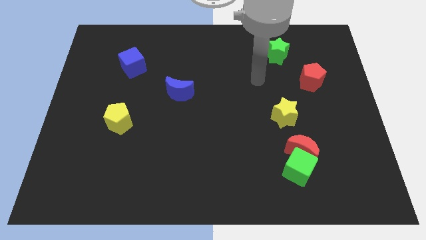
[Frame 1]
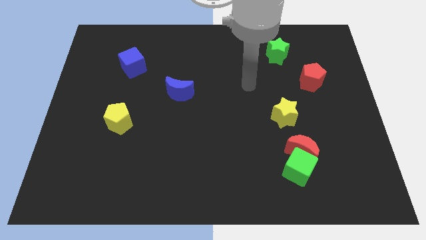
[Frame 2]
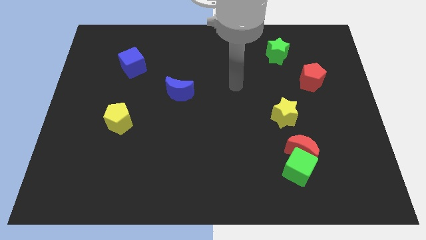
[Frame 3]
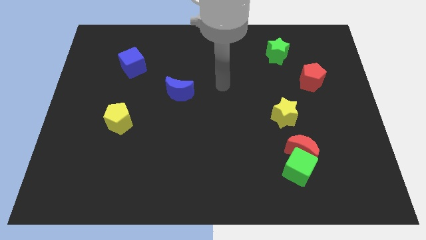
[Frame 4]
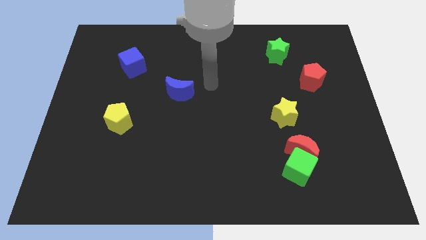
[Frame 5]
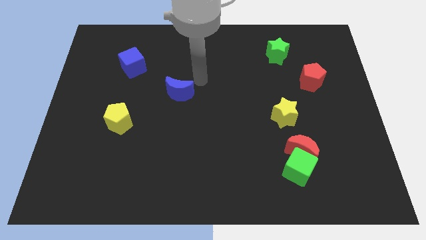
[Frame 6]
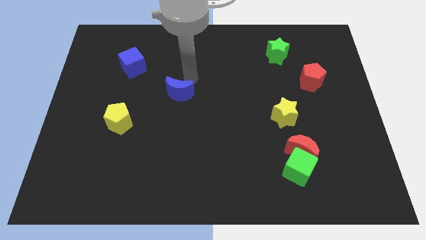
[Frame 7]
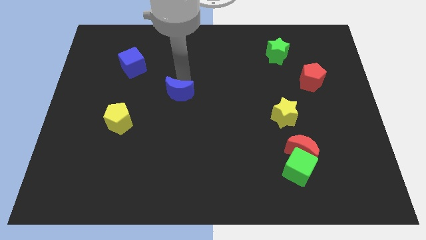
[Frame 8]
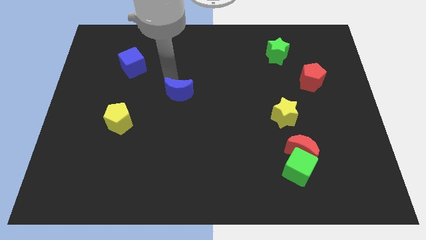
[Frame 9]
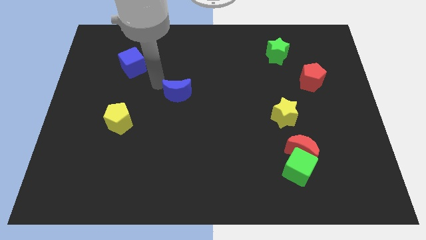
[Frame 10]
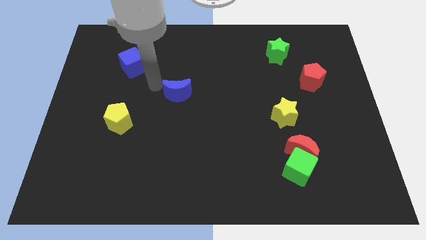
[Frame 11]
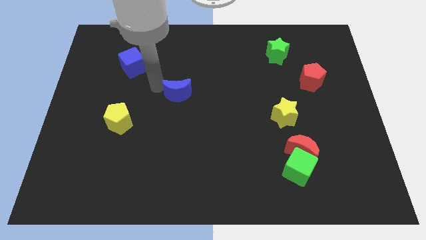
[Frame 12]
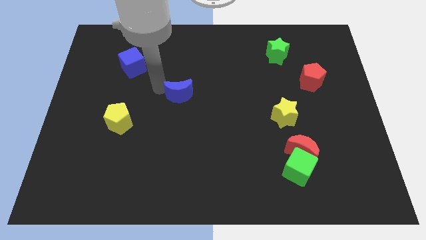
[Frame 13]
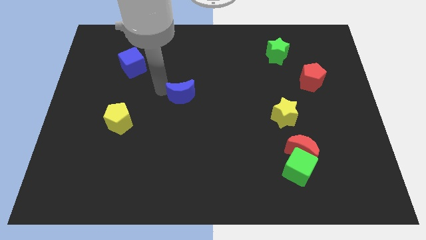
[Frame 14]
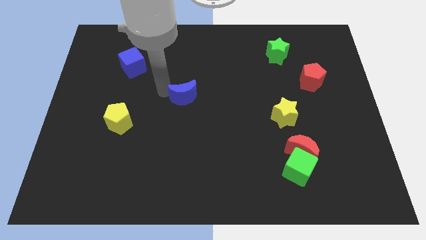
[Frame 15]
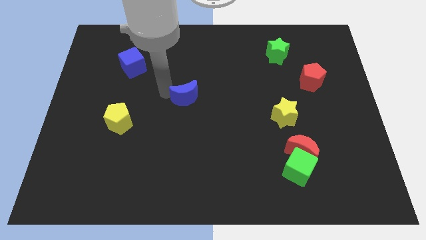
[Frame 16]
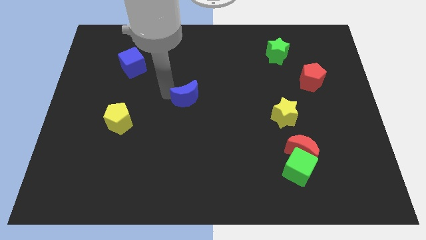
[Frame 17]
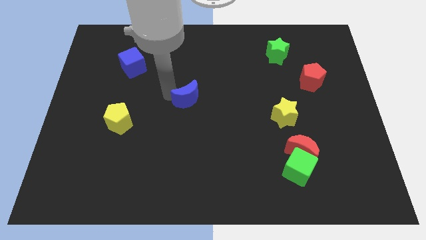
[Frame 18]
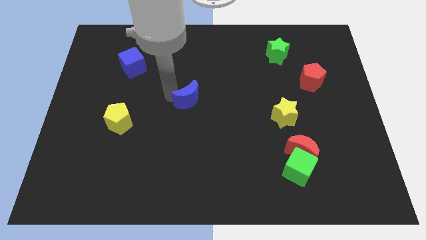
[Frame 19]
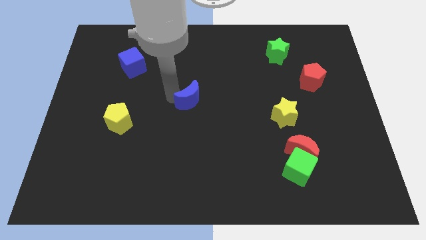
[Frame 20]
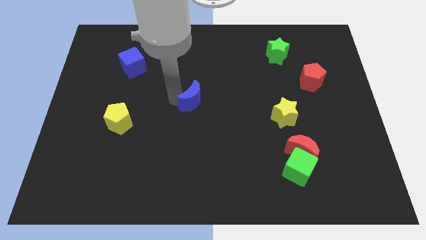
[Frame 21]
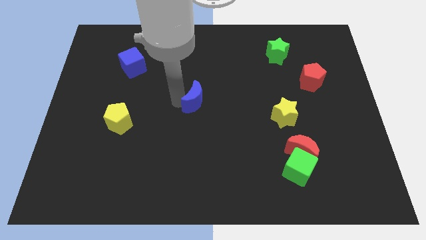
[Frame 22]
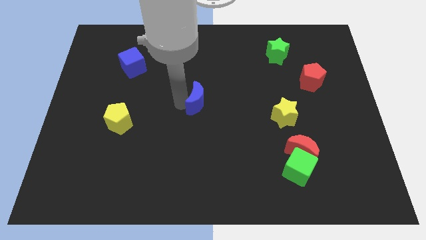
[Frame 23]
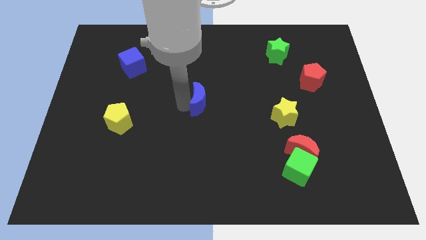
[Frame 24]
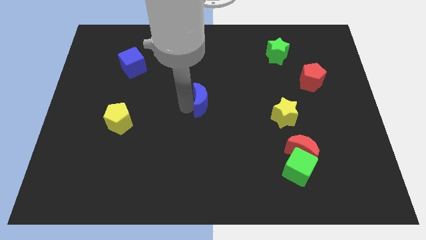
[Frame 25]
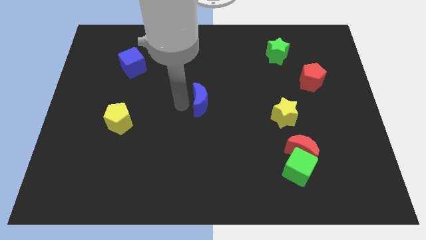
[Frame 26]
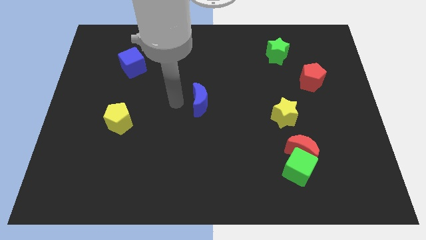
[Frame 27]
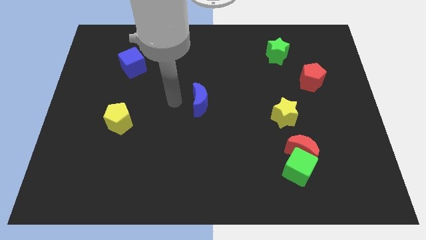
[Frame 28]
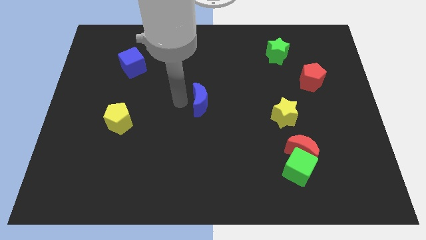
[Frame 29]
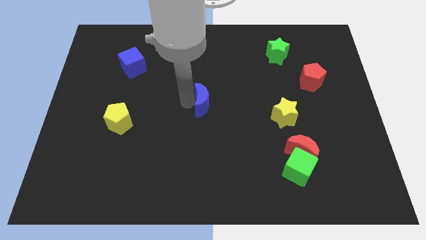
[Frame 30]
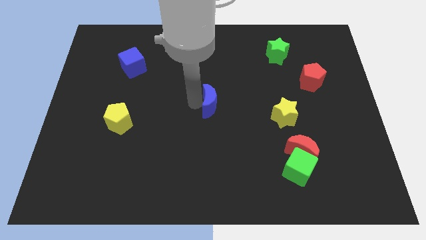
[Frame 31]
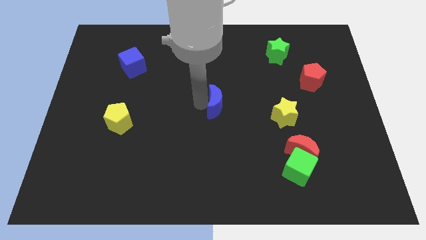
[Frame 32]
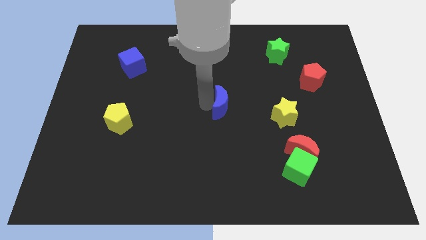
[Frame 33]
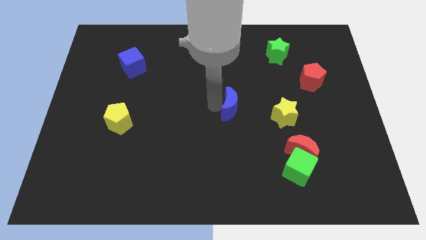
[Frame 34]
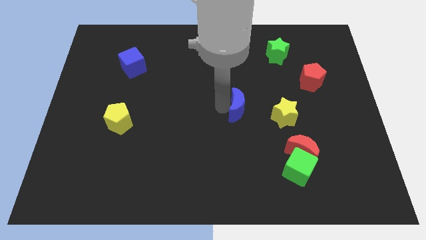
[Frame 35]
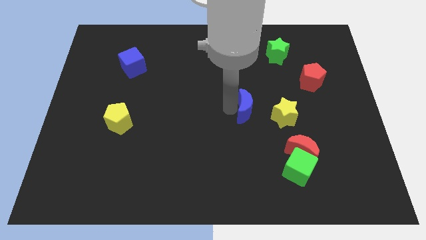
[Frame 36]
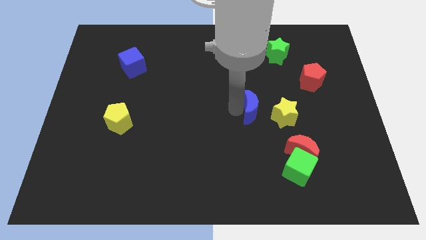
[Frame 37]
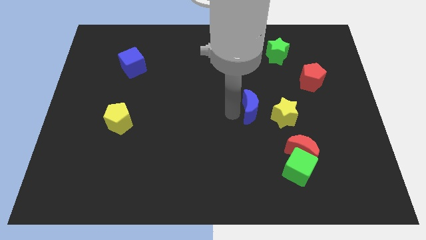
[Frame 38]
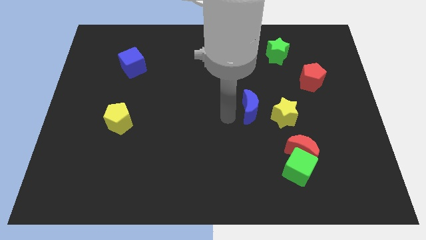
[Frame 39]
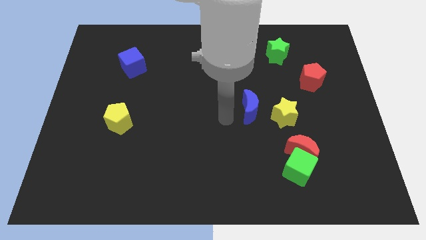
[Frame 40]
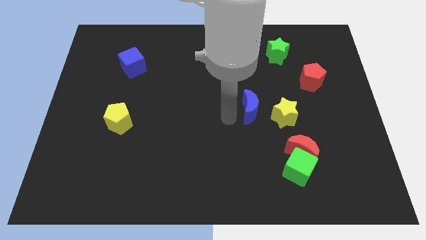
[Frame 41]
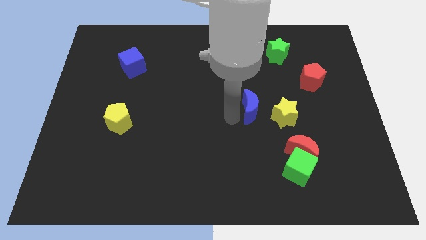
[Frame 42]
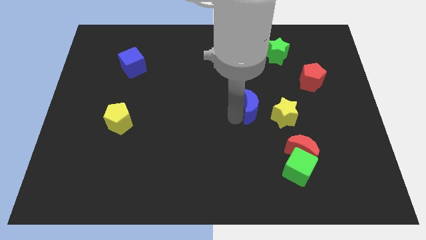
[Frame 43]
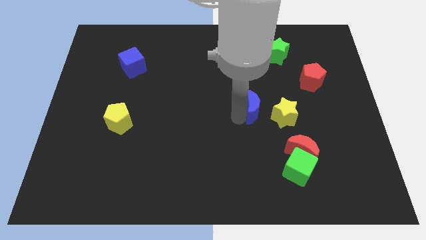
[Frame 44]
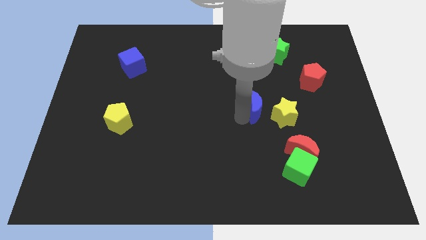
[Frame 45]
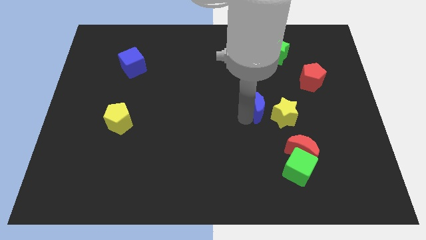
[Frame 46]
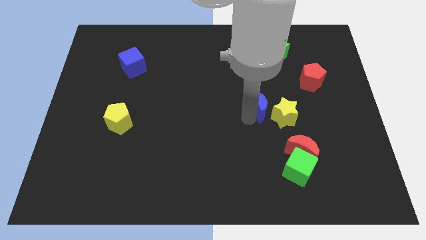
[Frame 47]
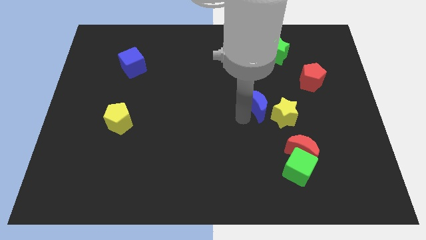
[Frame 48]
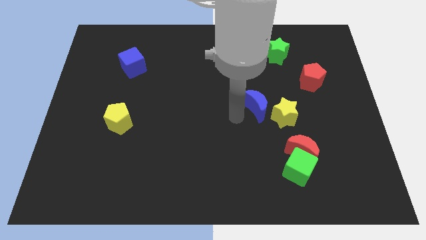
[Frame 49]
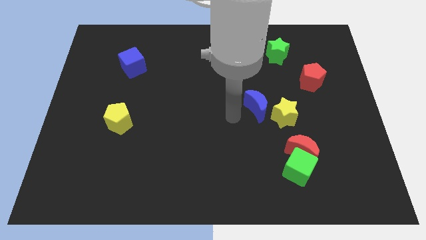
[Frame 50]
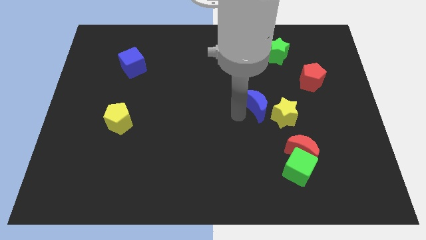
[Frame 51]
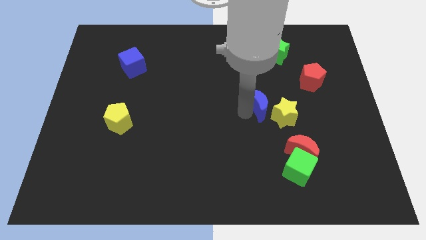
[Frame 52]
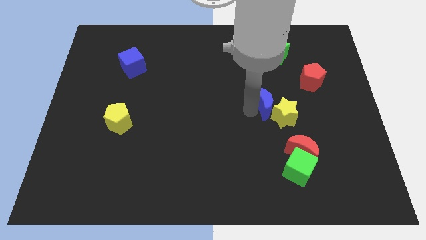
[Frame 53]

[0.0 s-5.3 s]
push the blue moon to the right

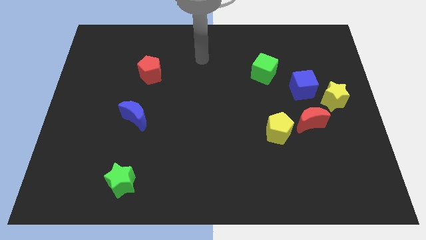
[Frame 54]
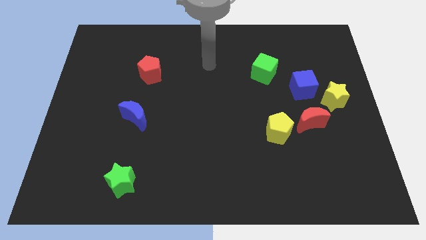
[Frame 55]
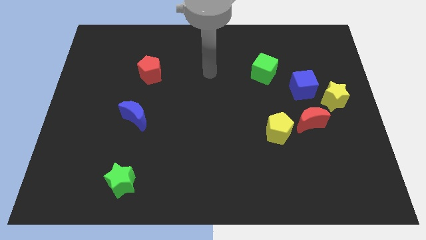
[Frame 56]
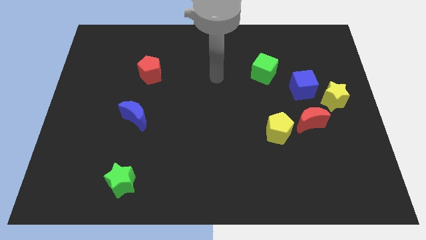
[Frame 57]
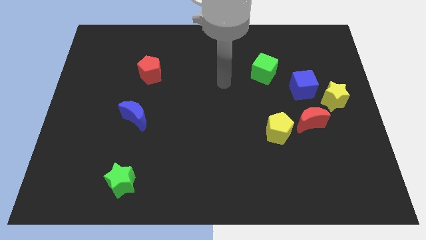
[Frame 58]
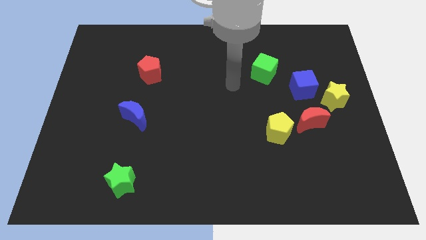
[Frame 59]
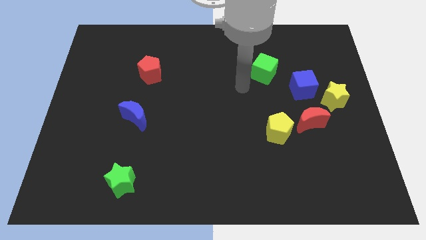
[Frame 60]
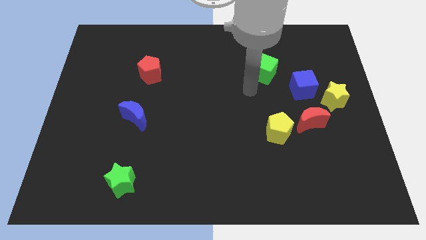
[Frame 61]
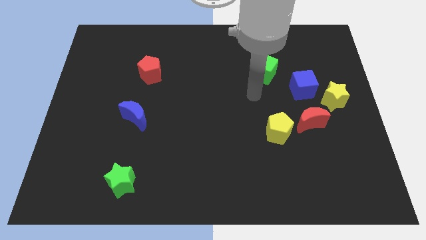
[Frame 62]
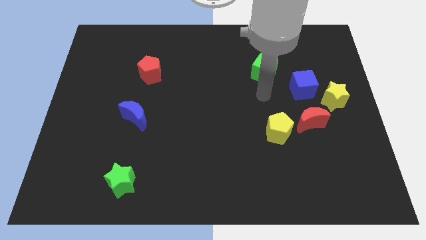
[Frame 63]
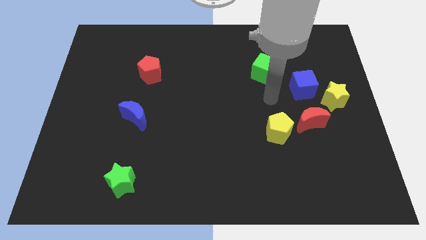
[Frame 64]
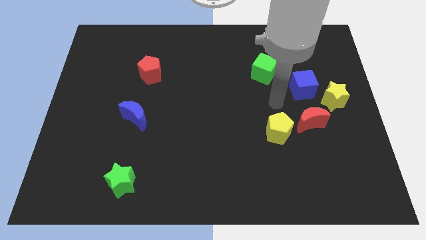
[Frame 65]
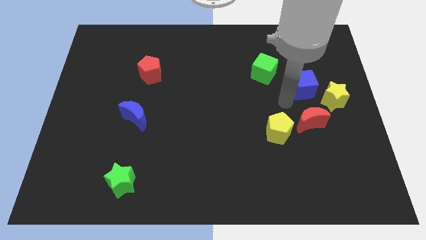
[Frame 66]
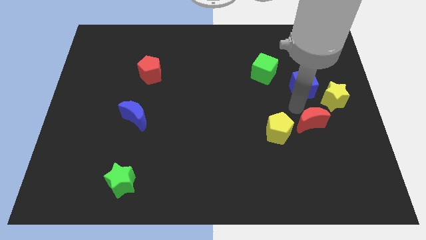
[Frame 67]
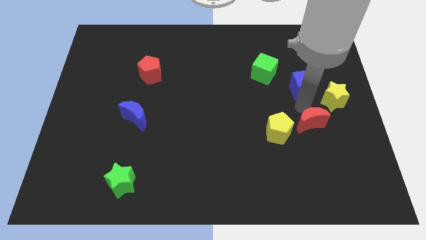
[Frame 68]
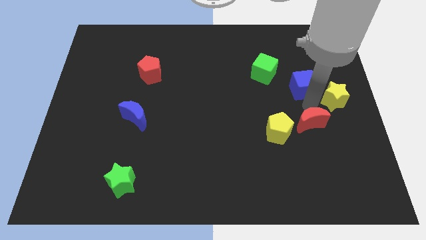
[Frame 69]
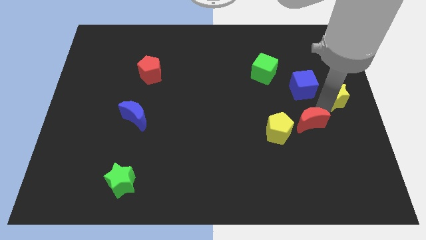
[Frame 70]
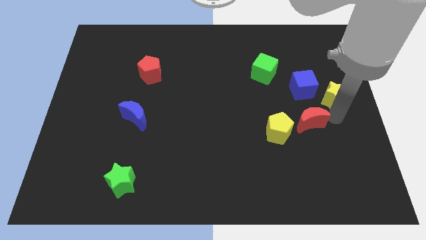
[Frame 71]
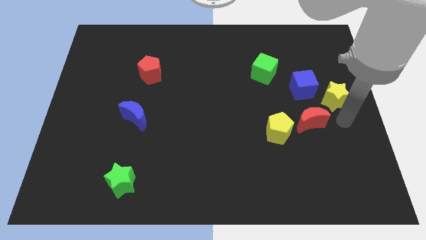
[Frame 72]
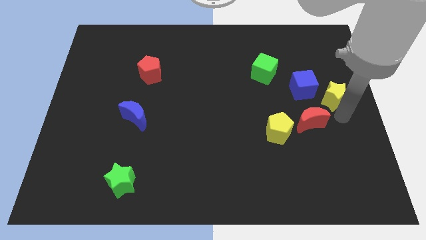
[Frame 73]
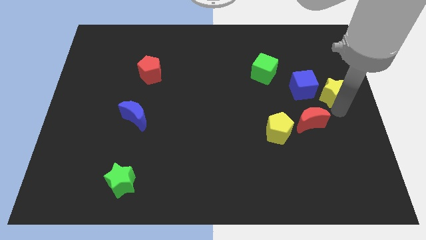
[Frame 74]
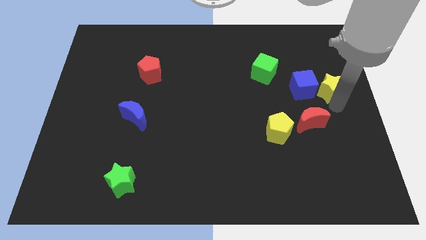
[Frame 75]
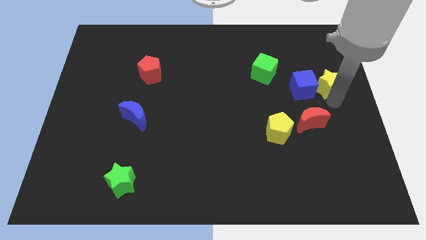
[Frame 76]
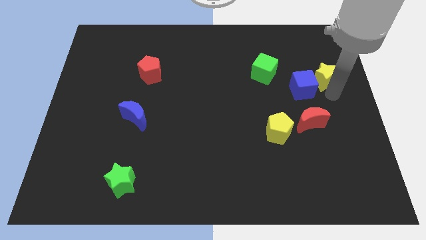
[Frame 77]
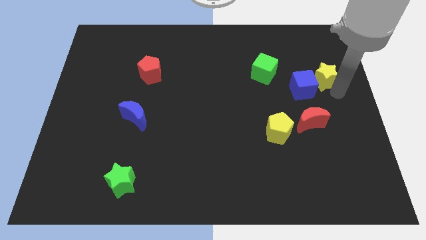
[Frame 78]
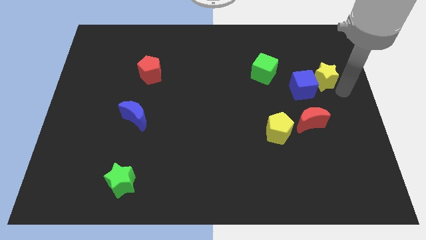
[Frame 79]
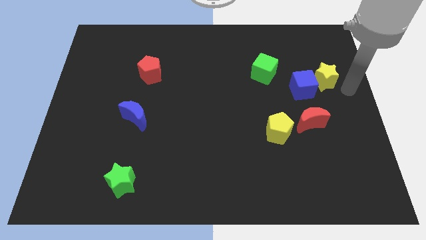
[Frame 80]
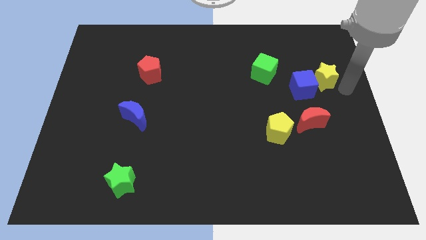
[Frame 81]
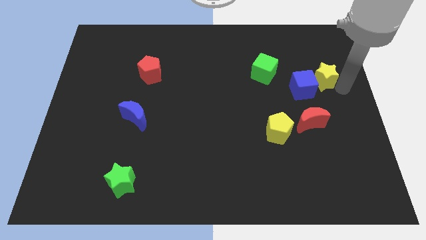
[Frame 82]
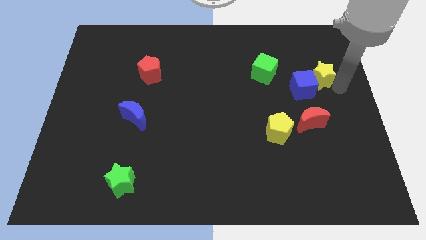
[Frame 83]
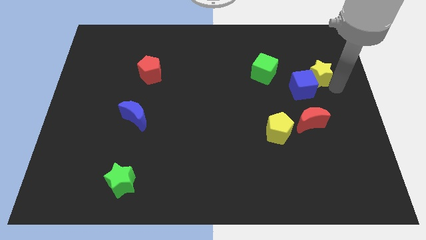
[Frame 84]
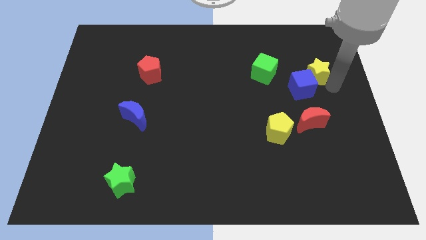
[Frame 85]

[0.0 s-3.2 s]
push the yellow star slightly up and then to the left

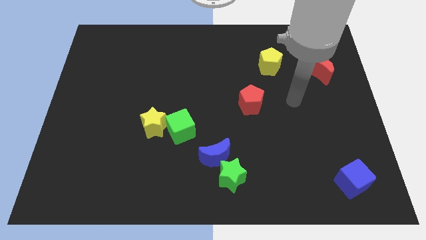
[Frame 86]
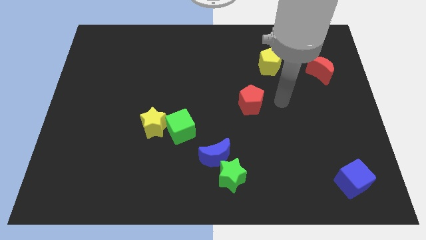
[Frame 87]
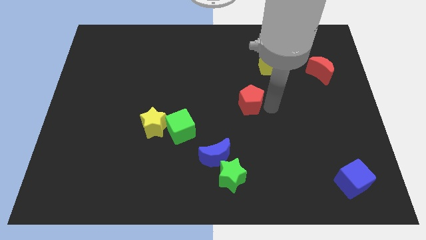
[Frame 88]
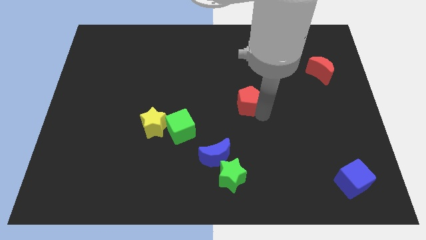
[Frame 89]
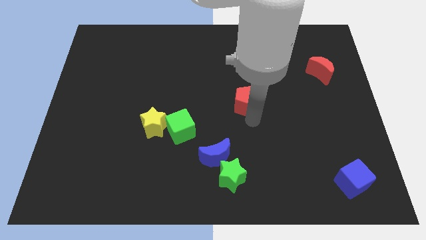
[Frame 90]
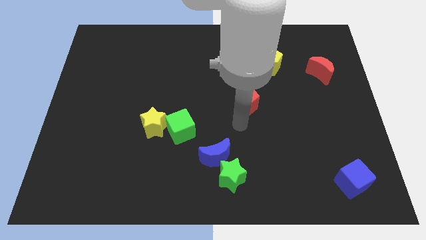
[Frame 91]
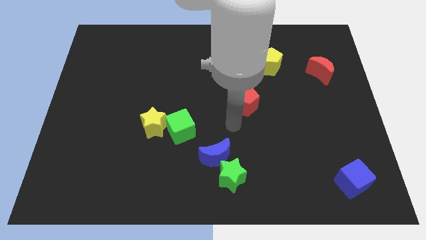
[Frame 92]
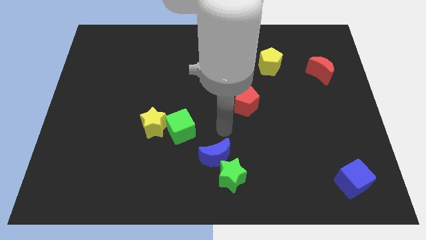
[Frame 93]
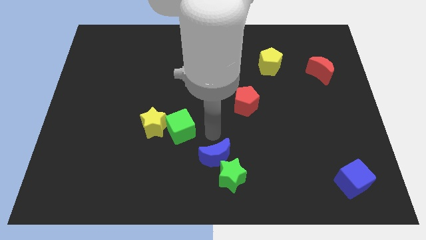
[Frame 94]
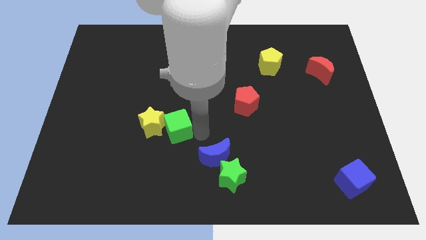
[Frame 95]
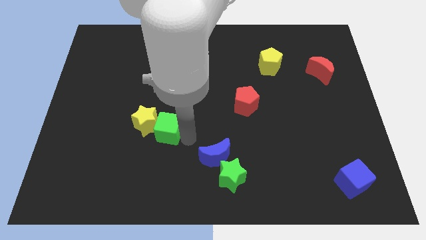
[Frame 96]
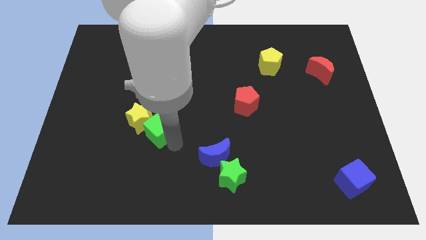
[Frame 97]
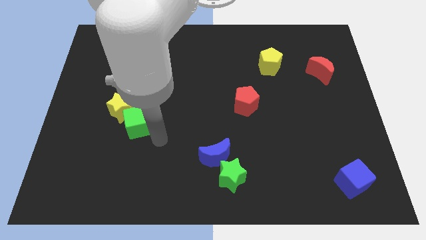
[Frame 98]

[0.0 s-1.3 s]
slightly move the yellow star up and left diagonally
